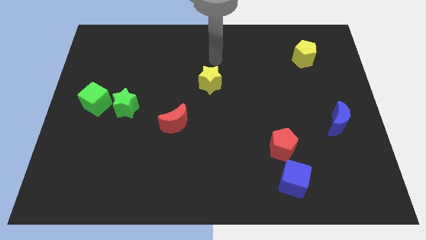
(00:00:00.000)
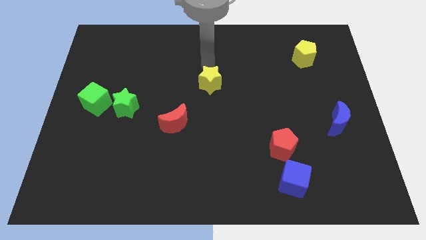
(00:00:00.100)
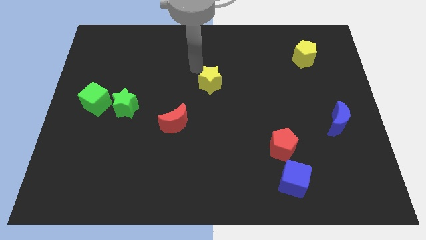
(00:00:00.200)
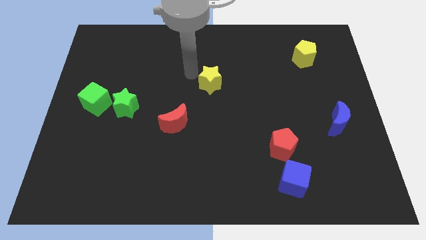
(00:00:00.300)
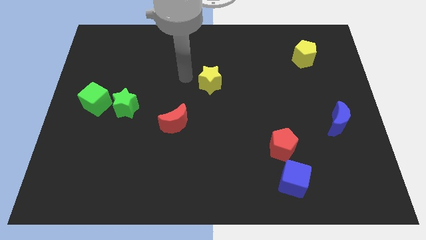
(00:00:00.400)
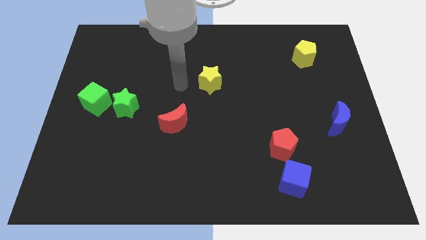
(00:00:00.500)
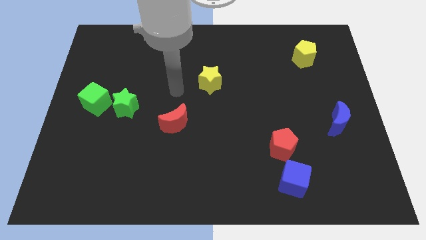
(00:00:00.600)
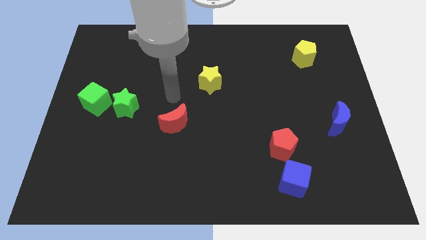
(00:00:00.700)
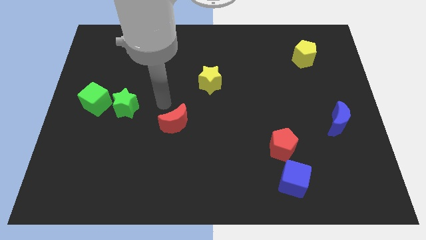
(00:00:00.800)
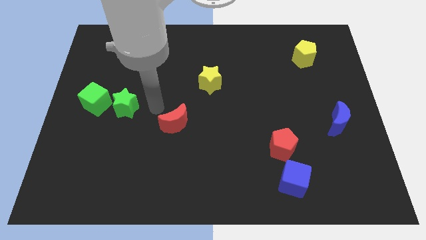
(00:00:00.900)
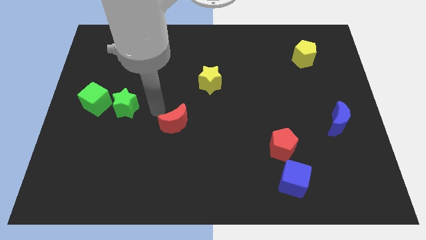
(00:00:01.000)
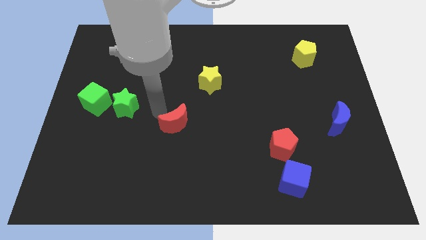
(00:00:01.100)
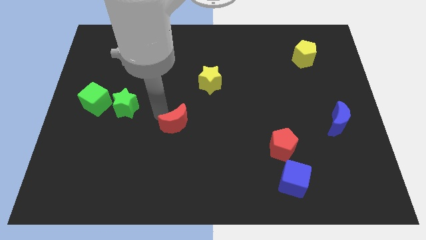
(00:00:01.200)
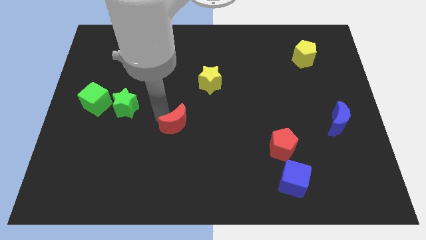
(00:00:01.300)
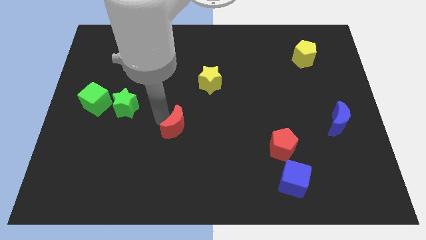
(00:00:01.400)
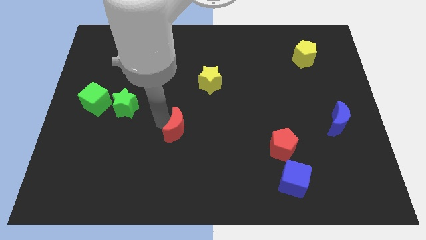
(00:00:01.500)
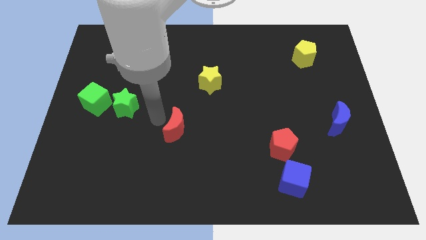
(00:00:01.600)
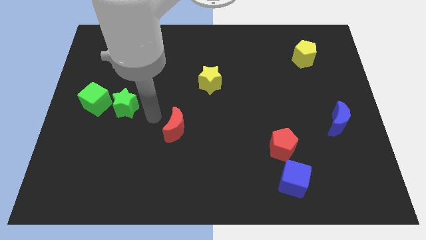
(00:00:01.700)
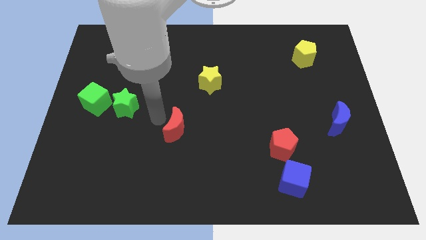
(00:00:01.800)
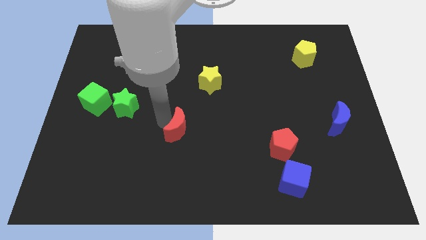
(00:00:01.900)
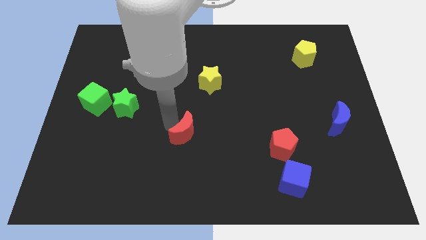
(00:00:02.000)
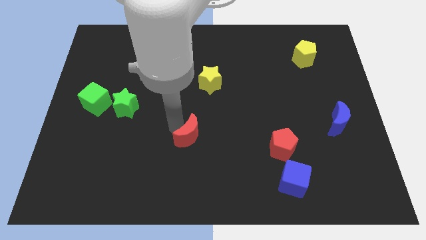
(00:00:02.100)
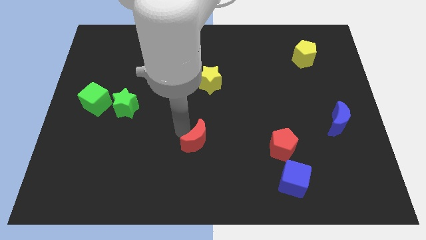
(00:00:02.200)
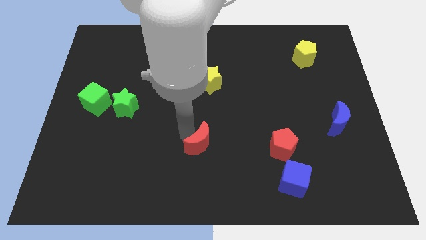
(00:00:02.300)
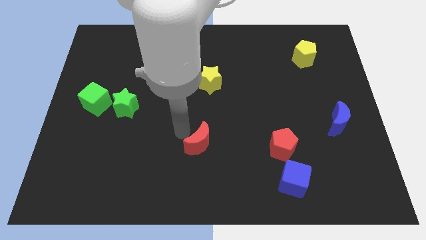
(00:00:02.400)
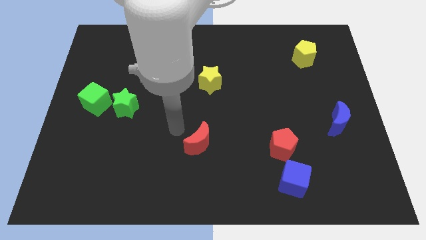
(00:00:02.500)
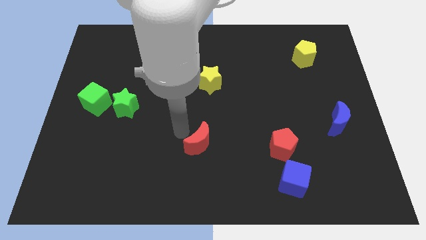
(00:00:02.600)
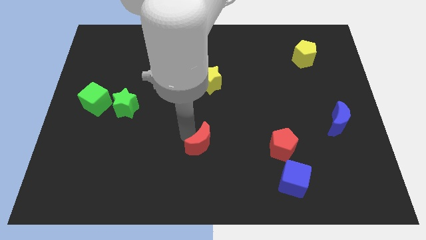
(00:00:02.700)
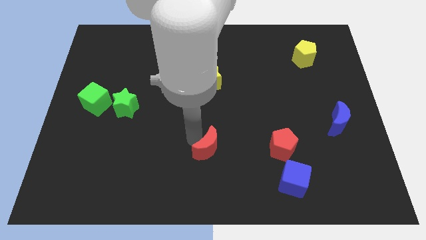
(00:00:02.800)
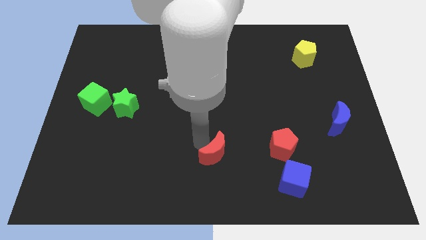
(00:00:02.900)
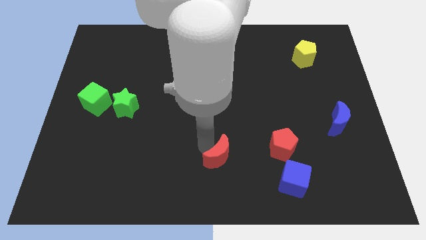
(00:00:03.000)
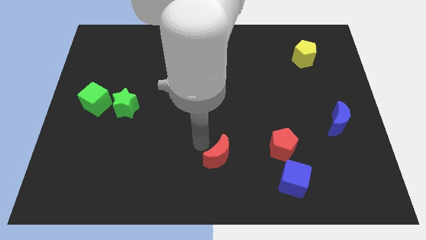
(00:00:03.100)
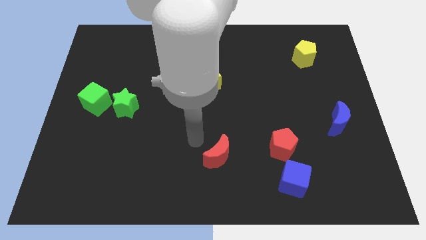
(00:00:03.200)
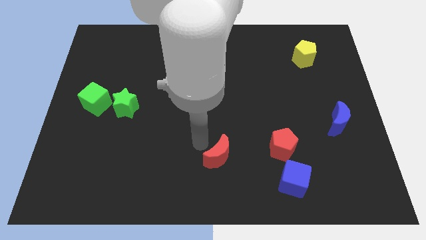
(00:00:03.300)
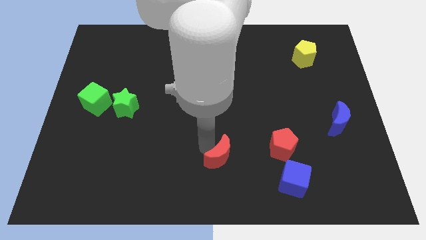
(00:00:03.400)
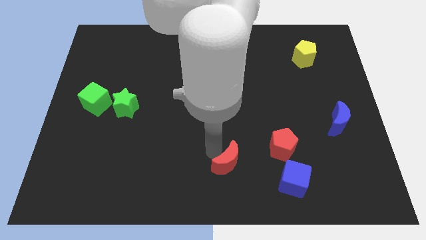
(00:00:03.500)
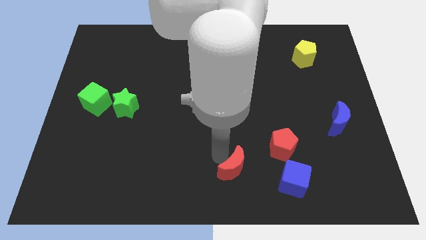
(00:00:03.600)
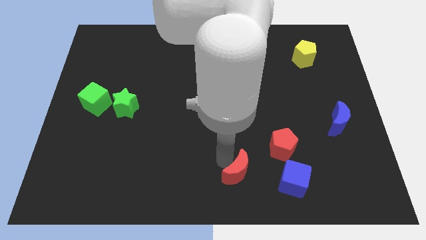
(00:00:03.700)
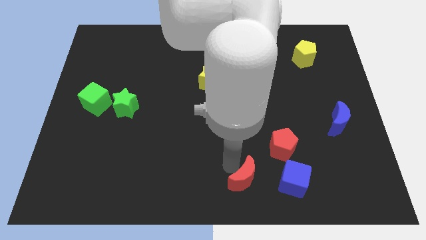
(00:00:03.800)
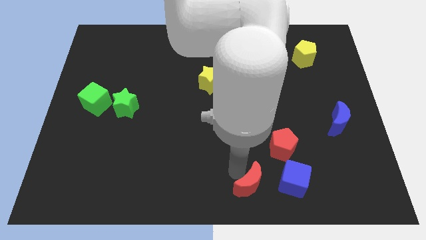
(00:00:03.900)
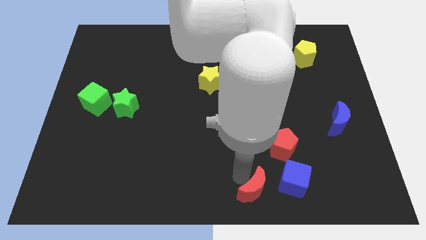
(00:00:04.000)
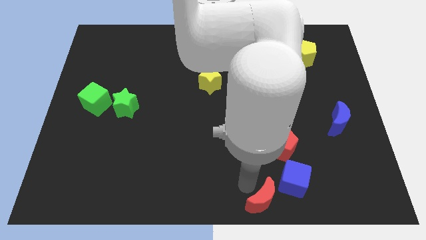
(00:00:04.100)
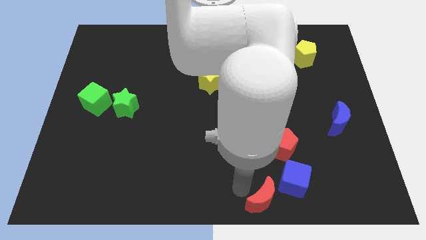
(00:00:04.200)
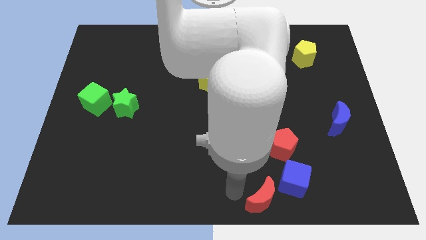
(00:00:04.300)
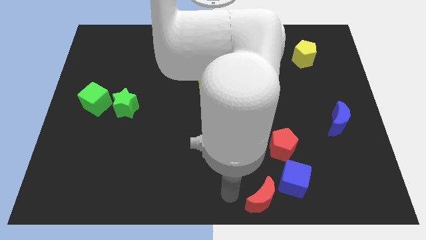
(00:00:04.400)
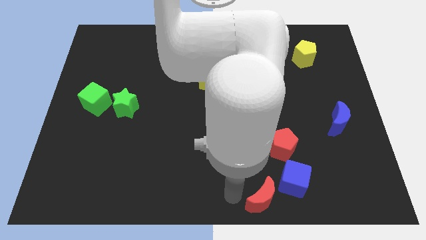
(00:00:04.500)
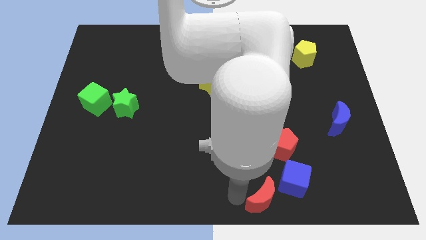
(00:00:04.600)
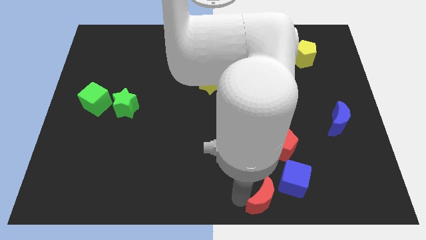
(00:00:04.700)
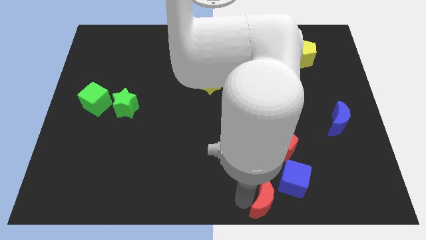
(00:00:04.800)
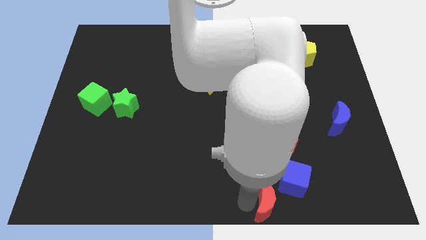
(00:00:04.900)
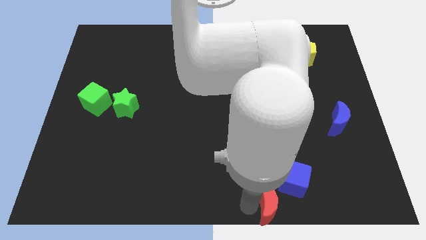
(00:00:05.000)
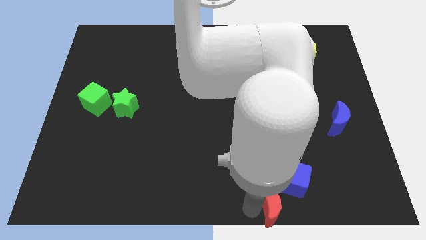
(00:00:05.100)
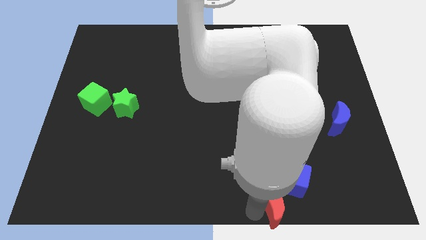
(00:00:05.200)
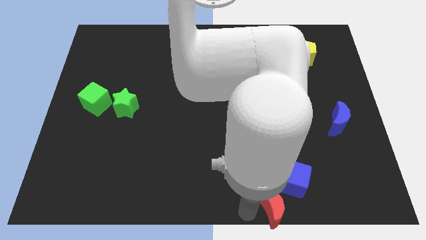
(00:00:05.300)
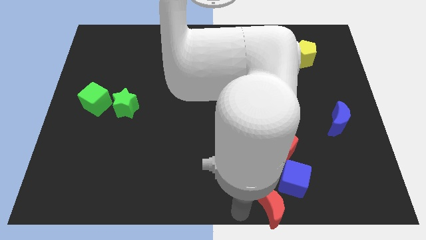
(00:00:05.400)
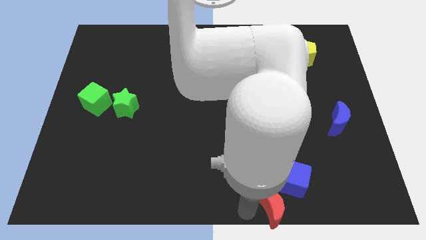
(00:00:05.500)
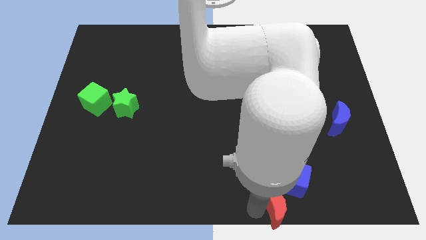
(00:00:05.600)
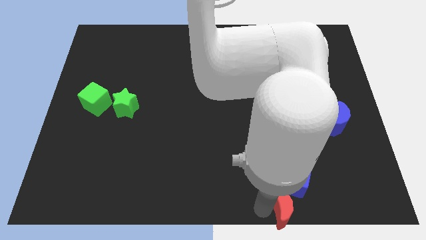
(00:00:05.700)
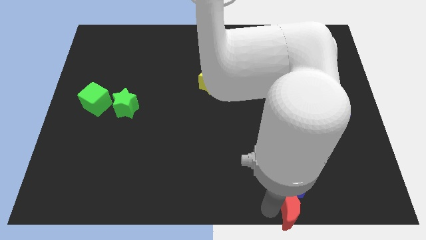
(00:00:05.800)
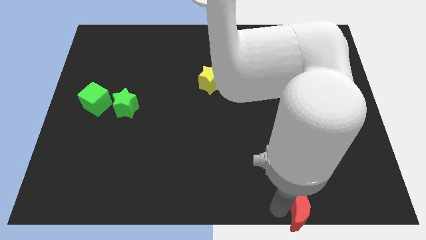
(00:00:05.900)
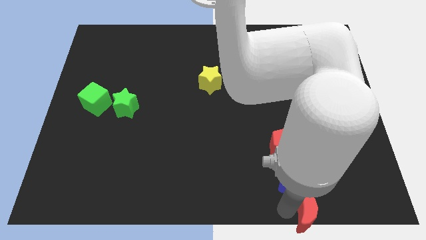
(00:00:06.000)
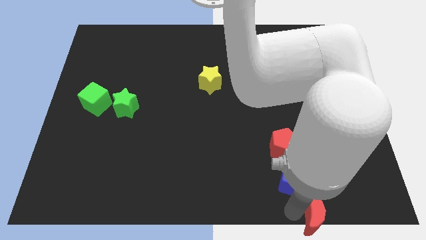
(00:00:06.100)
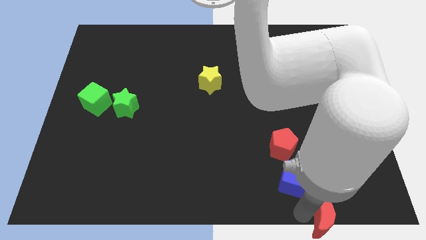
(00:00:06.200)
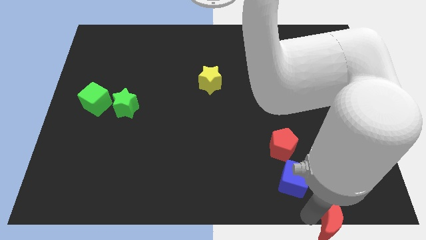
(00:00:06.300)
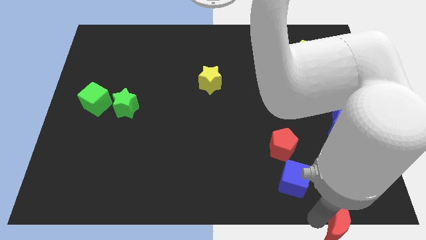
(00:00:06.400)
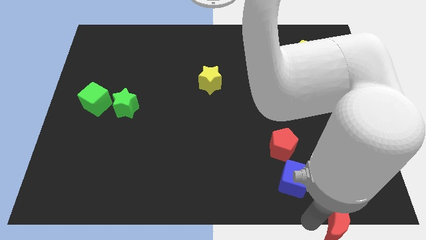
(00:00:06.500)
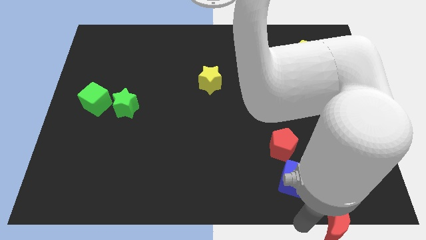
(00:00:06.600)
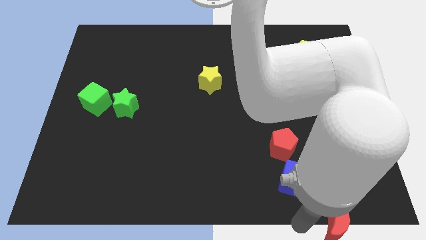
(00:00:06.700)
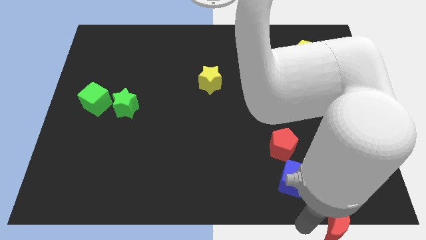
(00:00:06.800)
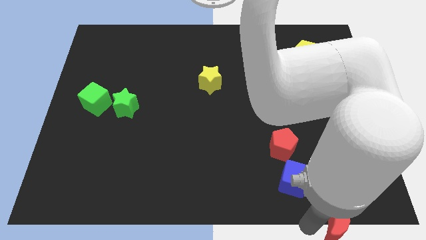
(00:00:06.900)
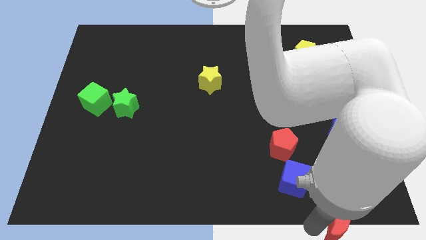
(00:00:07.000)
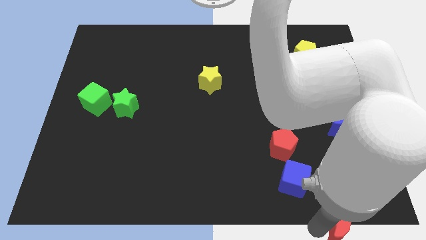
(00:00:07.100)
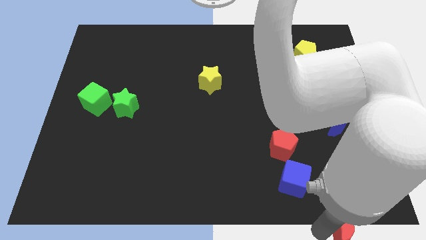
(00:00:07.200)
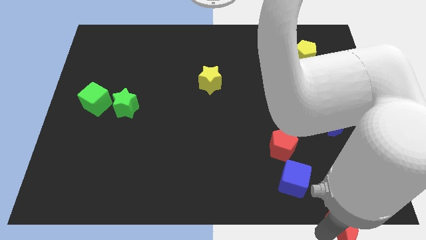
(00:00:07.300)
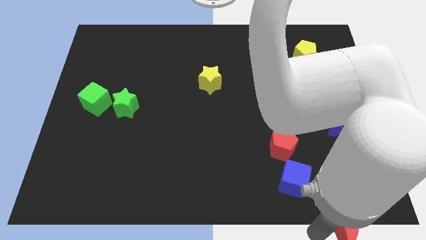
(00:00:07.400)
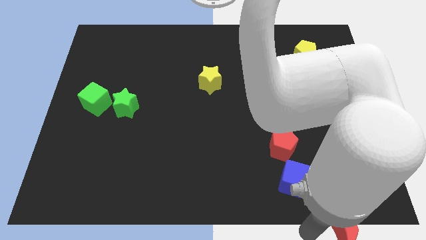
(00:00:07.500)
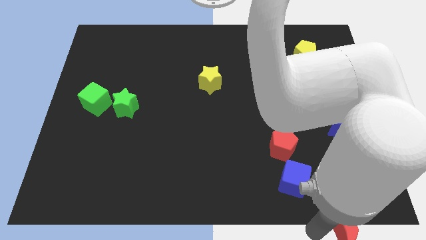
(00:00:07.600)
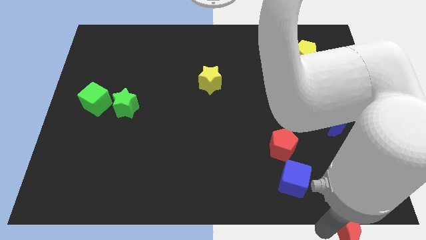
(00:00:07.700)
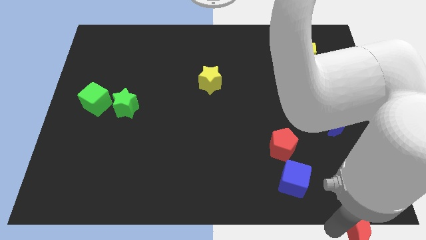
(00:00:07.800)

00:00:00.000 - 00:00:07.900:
push the red moon to the bottom right
